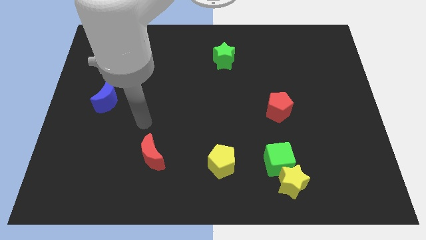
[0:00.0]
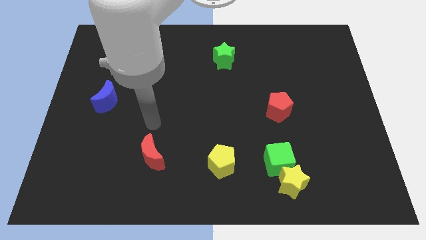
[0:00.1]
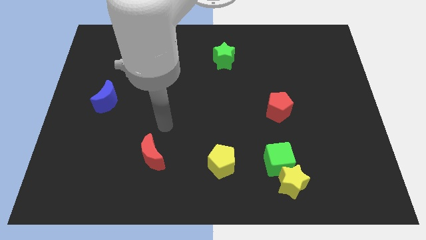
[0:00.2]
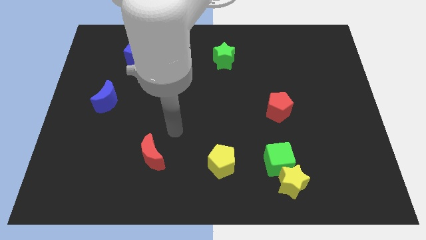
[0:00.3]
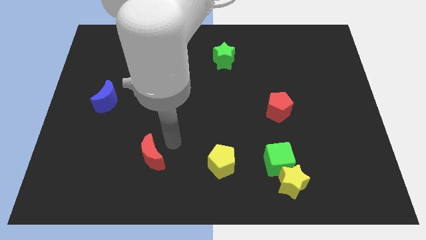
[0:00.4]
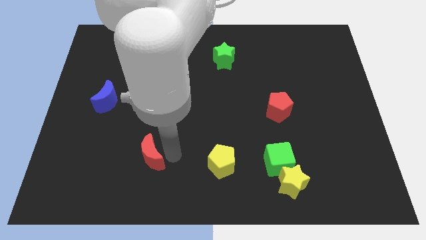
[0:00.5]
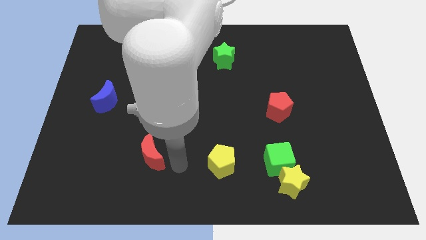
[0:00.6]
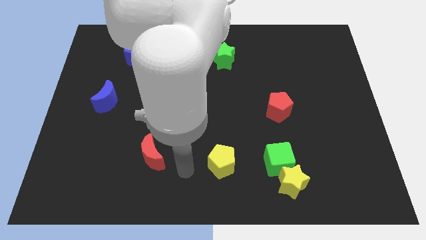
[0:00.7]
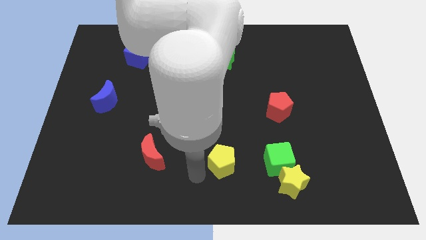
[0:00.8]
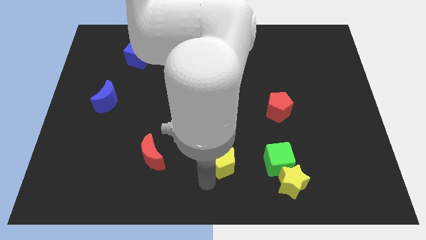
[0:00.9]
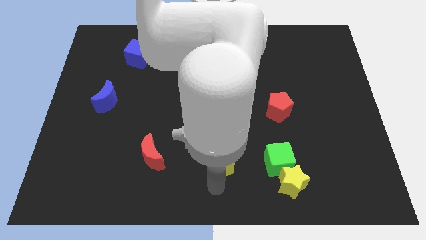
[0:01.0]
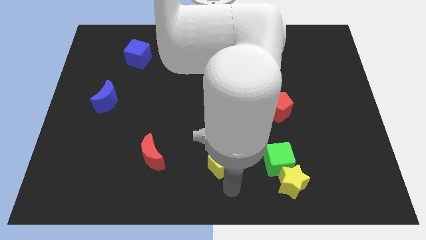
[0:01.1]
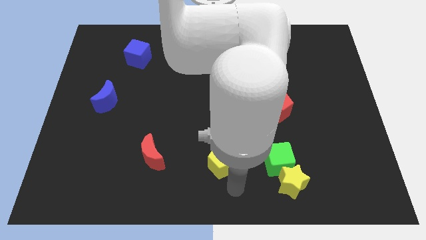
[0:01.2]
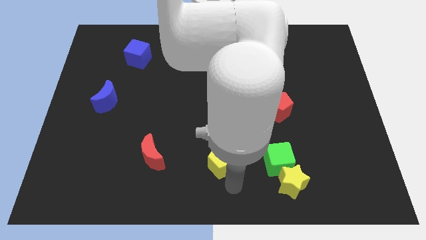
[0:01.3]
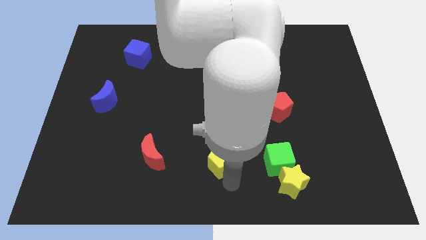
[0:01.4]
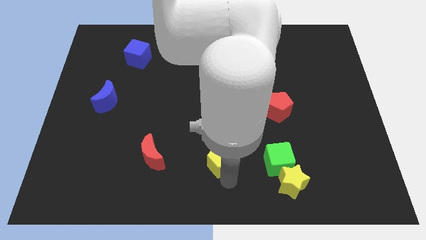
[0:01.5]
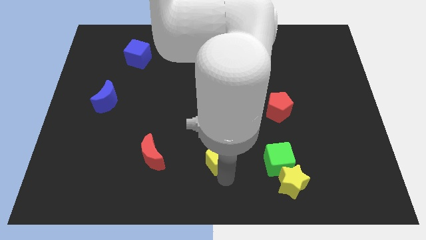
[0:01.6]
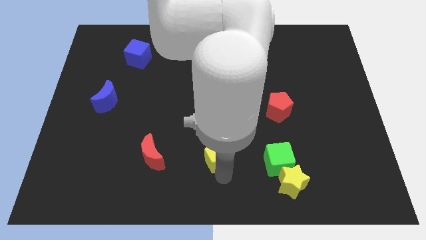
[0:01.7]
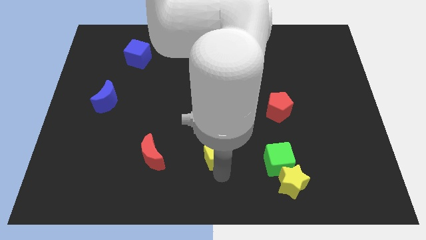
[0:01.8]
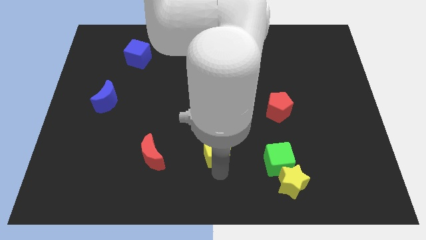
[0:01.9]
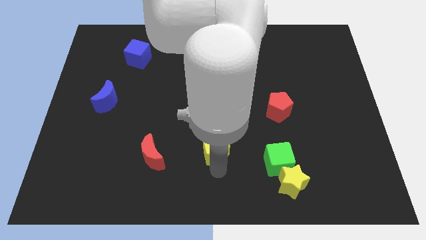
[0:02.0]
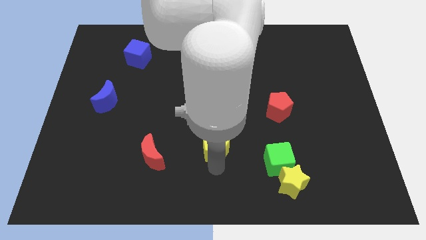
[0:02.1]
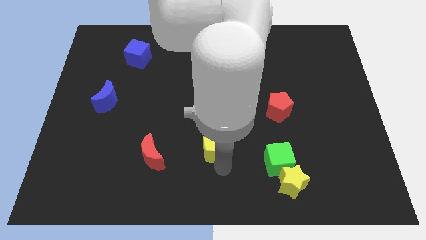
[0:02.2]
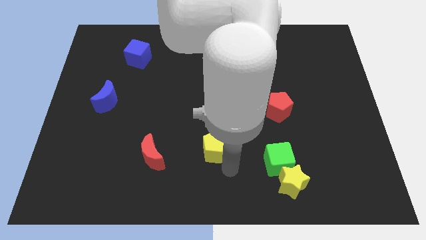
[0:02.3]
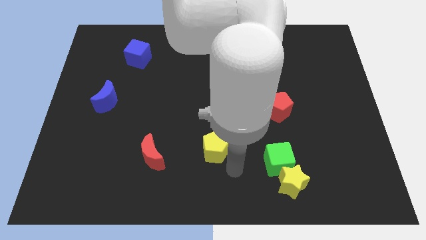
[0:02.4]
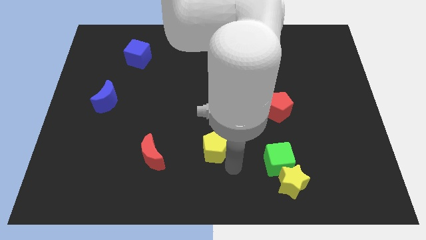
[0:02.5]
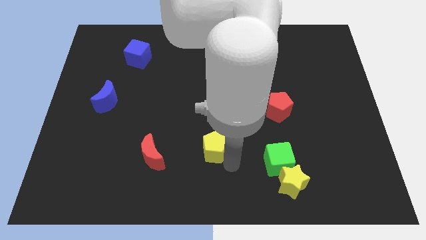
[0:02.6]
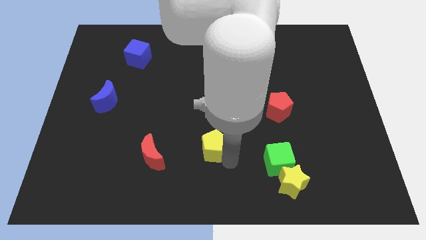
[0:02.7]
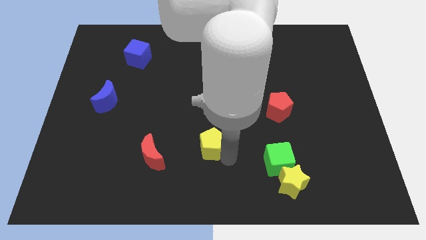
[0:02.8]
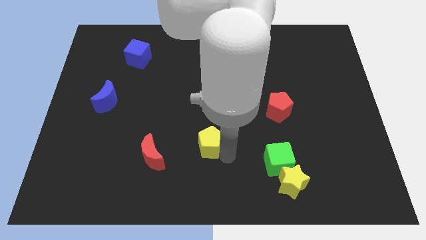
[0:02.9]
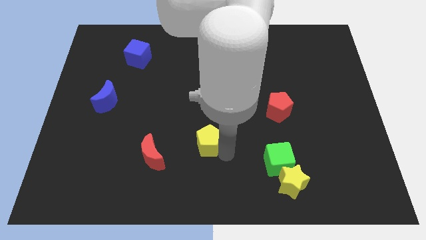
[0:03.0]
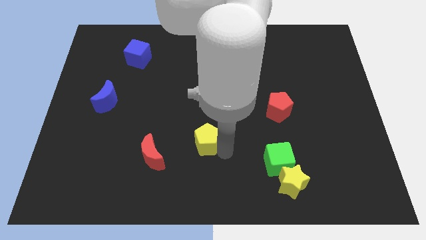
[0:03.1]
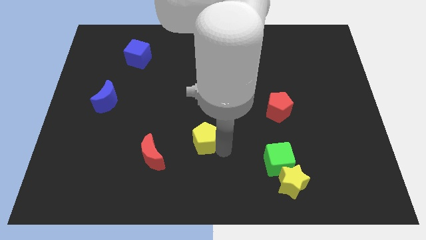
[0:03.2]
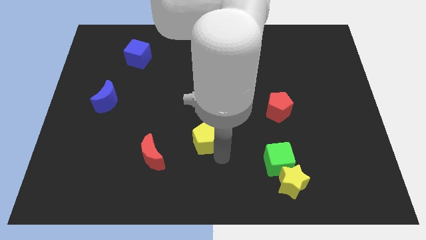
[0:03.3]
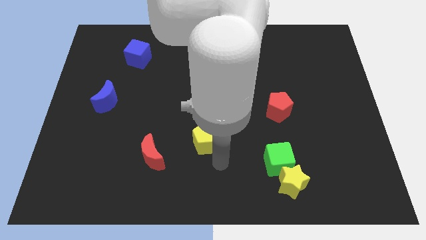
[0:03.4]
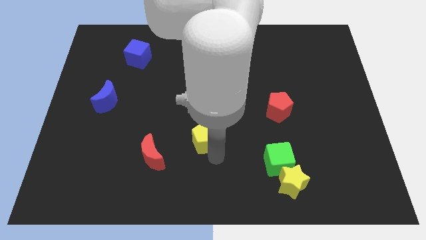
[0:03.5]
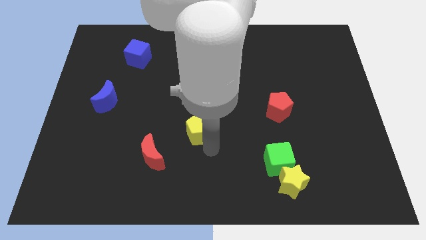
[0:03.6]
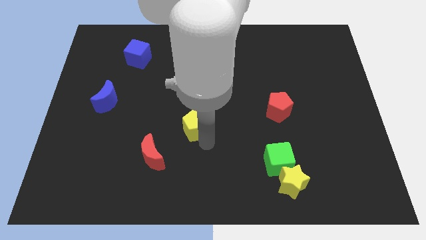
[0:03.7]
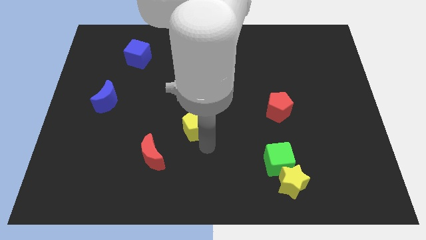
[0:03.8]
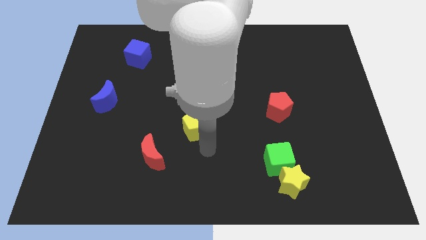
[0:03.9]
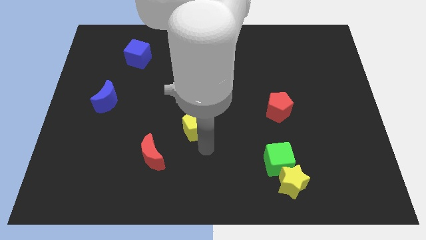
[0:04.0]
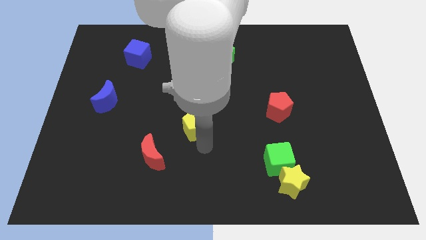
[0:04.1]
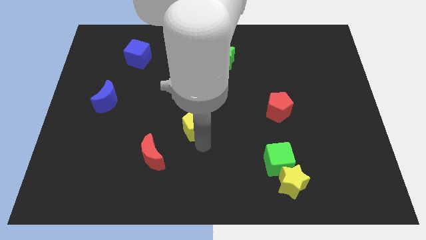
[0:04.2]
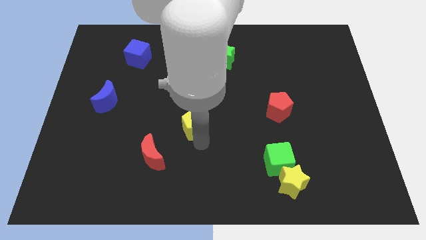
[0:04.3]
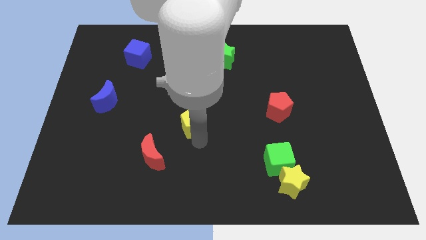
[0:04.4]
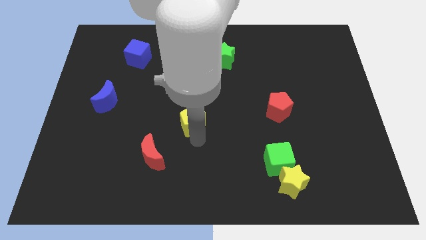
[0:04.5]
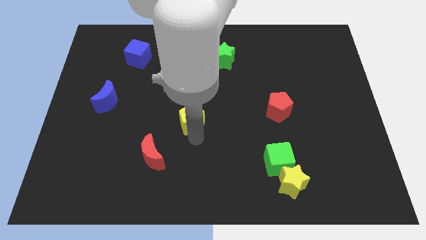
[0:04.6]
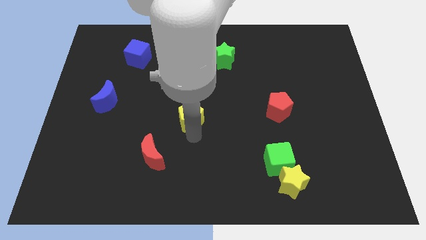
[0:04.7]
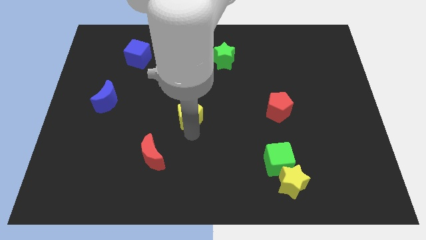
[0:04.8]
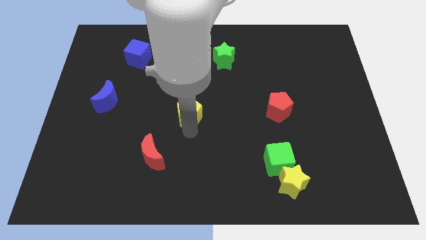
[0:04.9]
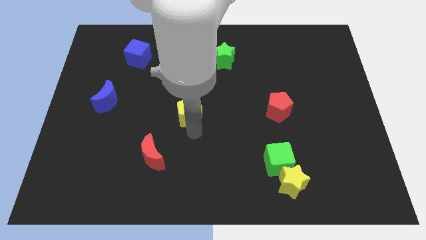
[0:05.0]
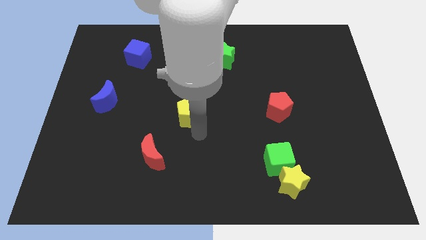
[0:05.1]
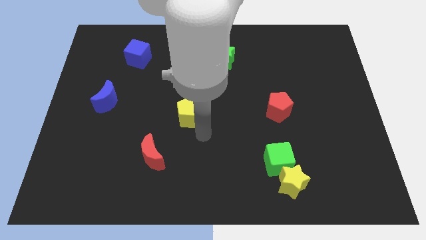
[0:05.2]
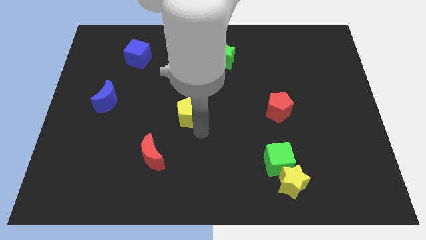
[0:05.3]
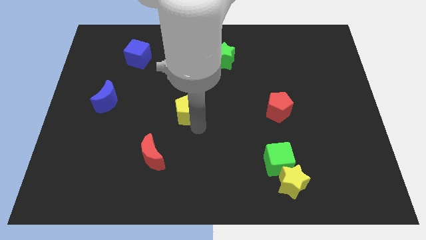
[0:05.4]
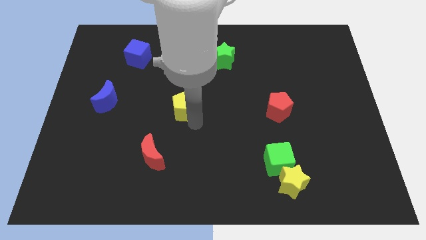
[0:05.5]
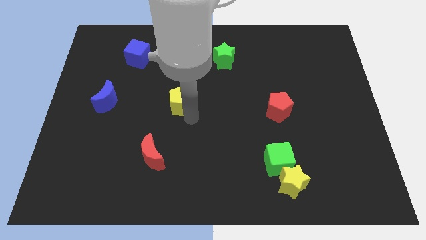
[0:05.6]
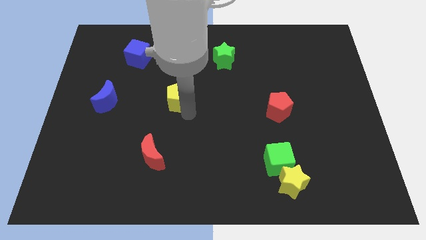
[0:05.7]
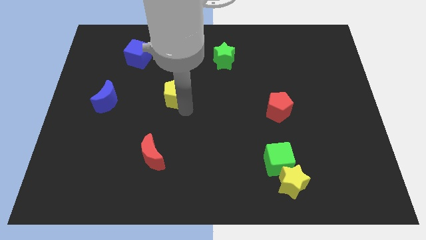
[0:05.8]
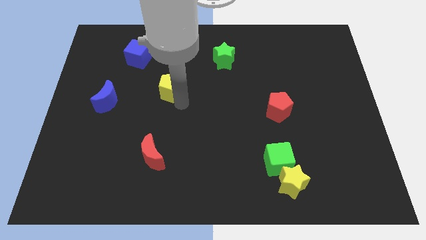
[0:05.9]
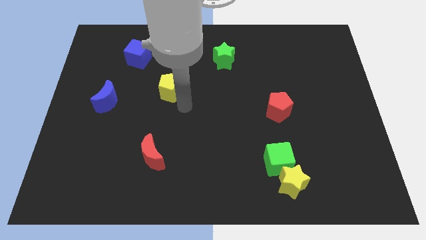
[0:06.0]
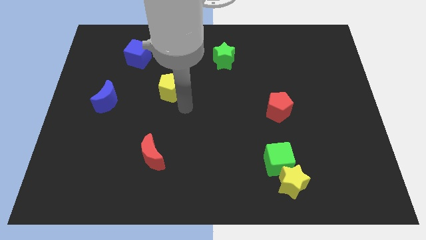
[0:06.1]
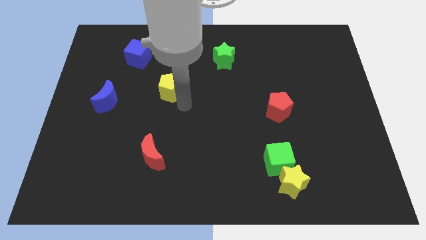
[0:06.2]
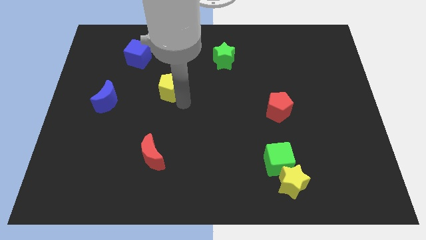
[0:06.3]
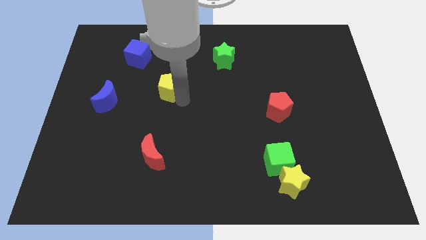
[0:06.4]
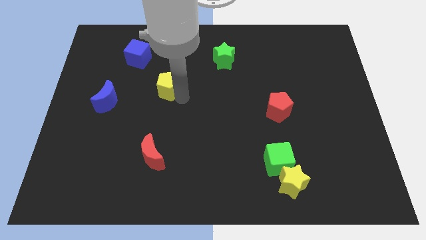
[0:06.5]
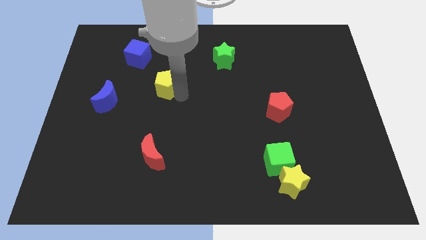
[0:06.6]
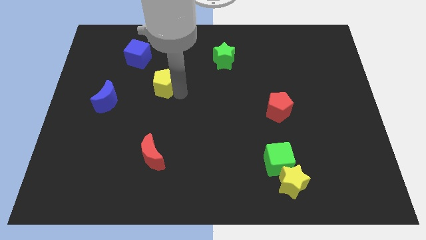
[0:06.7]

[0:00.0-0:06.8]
push the yellow pentagon diagonally down and to the right of the blue cube
